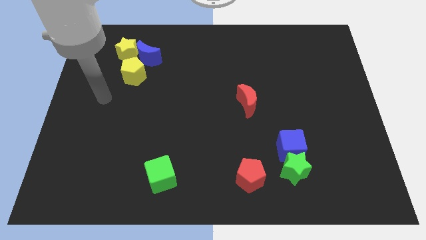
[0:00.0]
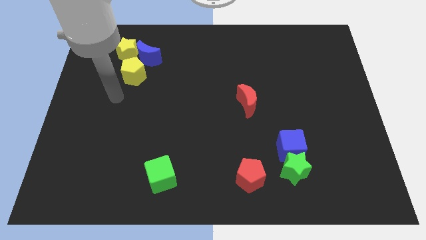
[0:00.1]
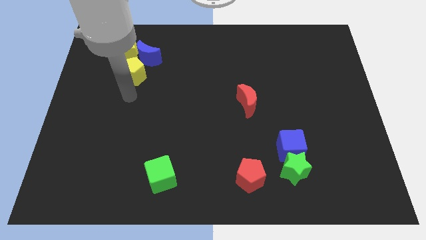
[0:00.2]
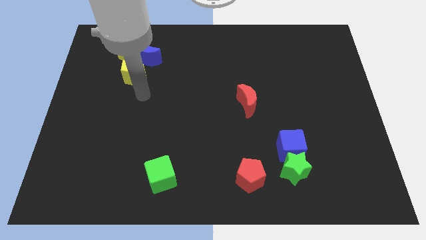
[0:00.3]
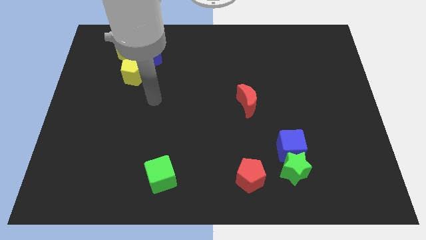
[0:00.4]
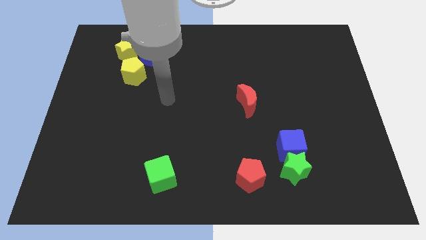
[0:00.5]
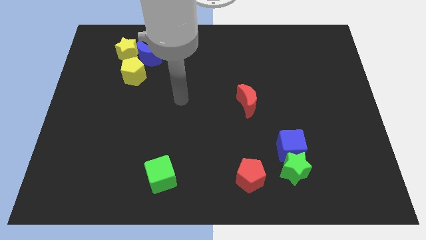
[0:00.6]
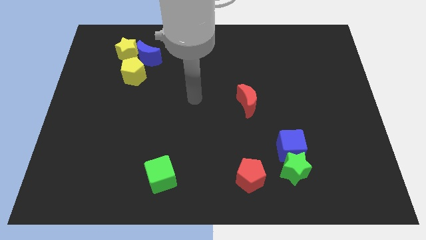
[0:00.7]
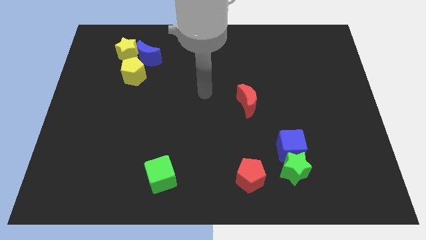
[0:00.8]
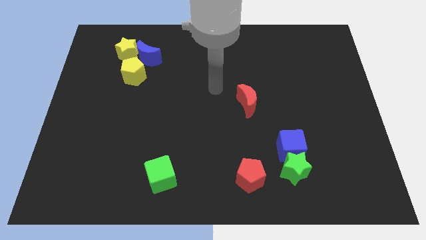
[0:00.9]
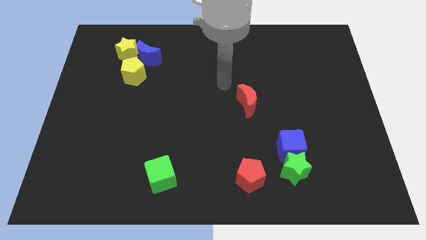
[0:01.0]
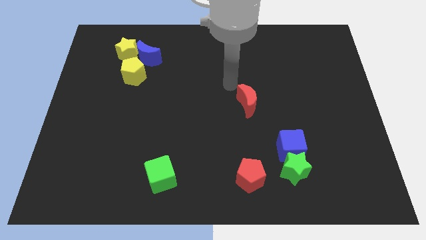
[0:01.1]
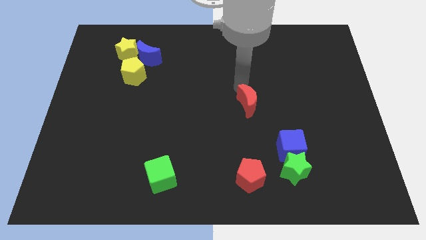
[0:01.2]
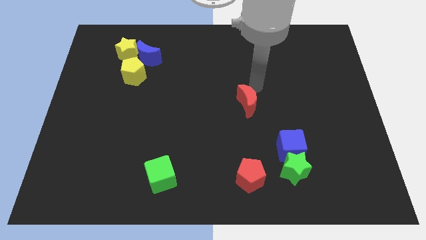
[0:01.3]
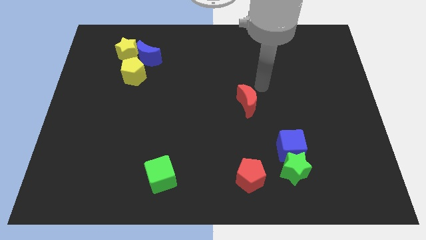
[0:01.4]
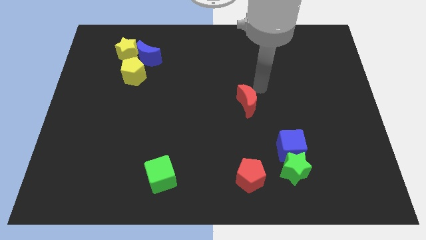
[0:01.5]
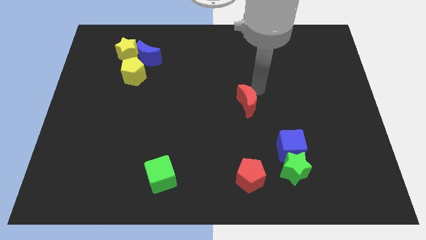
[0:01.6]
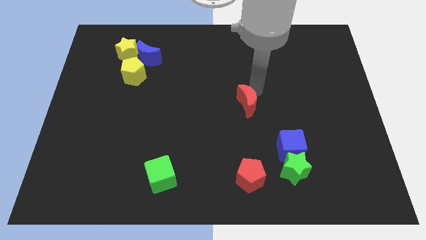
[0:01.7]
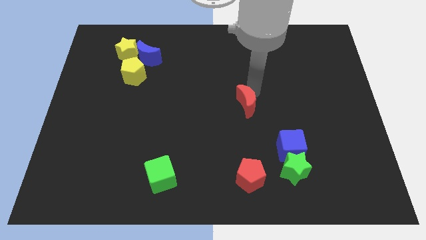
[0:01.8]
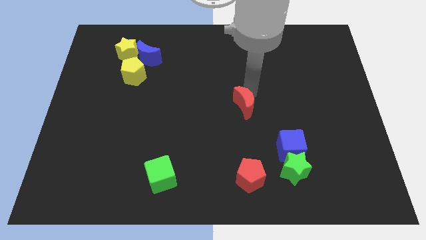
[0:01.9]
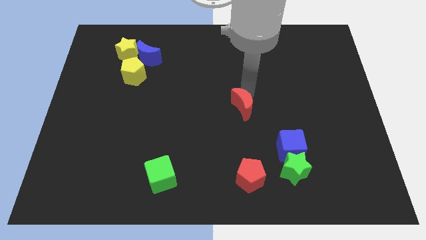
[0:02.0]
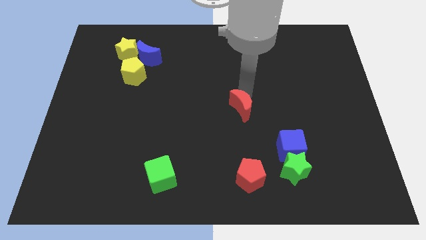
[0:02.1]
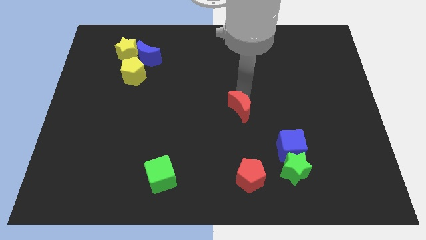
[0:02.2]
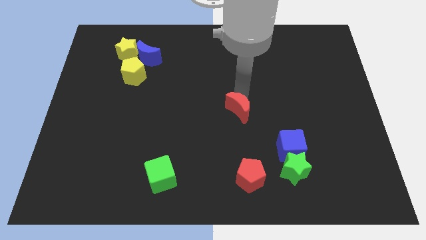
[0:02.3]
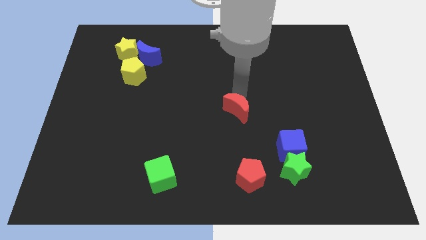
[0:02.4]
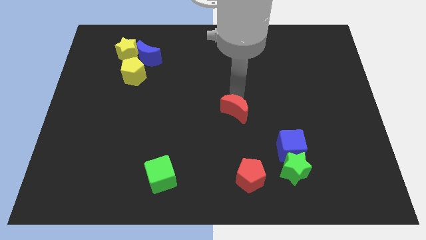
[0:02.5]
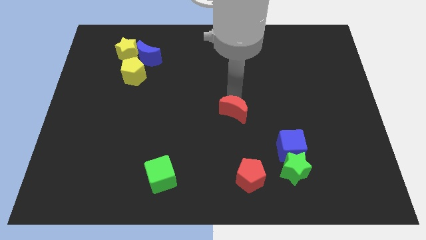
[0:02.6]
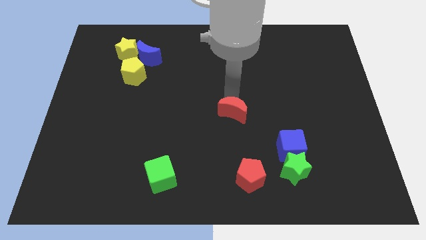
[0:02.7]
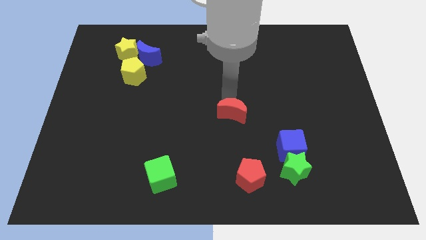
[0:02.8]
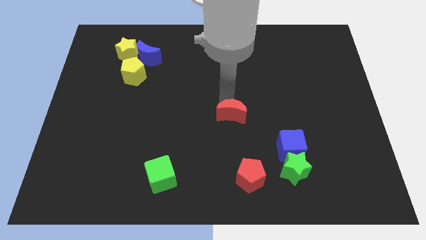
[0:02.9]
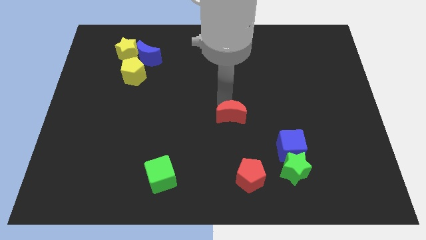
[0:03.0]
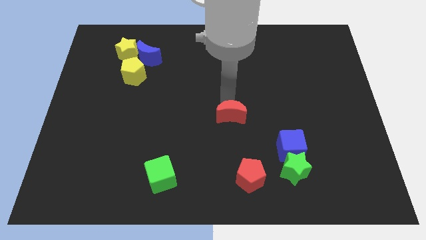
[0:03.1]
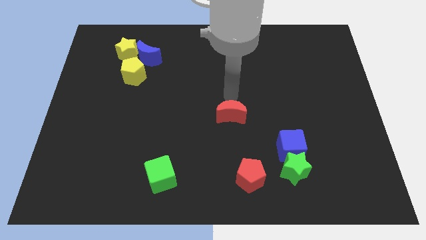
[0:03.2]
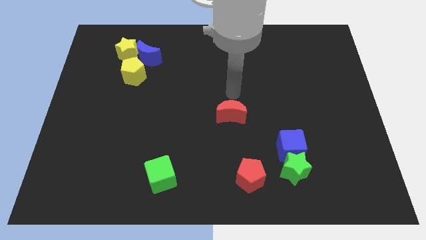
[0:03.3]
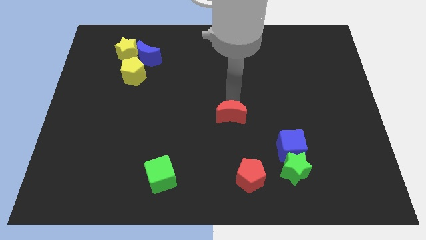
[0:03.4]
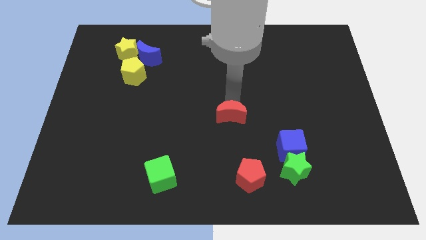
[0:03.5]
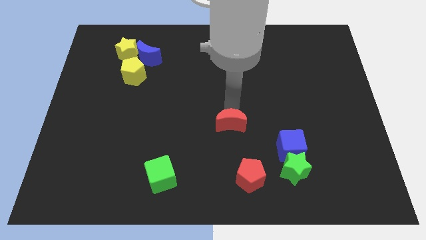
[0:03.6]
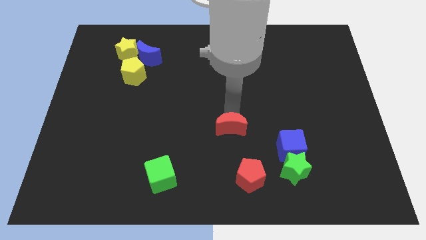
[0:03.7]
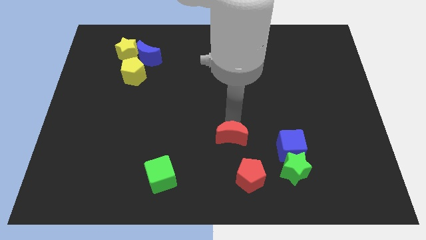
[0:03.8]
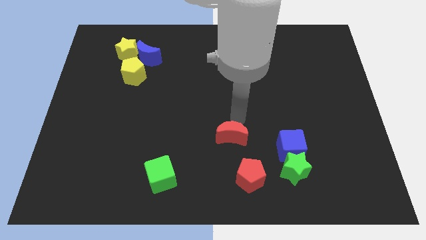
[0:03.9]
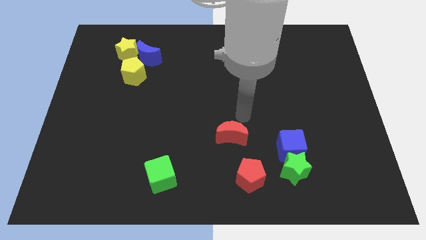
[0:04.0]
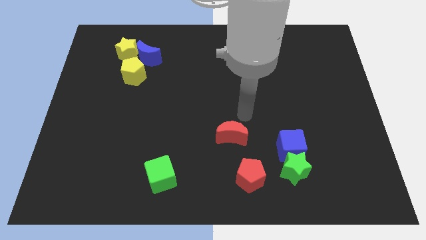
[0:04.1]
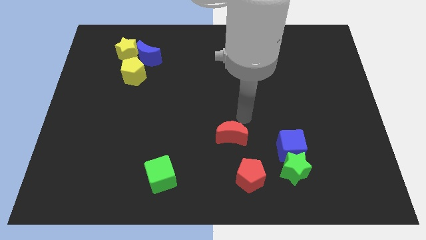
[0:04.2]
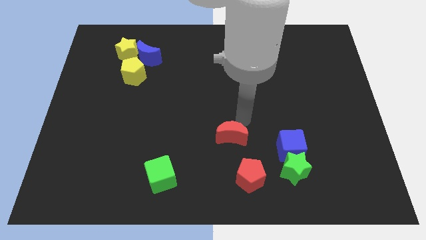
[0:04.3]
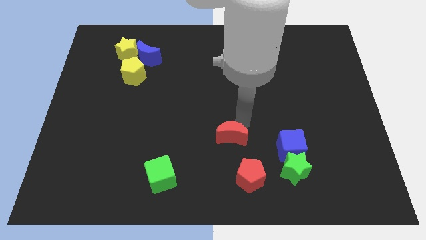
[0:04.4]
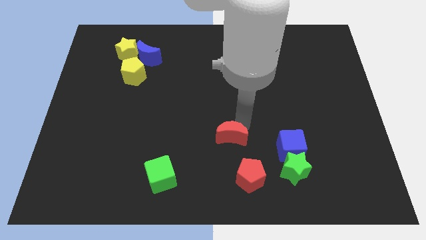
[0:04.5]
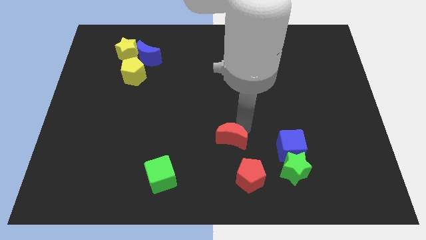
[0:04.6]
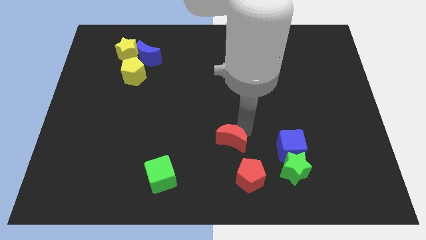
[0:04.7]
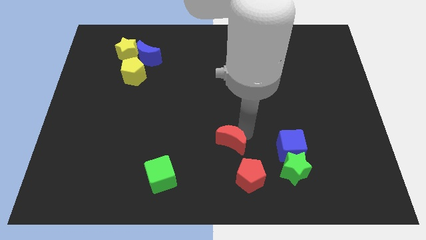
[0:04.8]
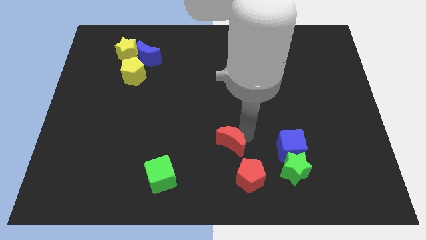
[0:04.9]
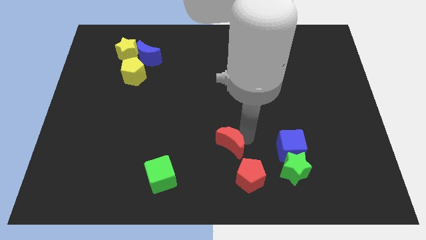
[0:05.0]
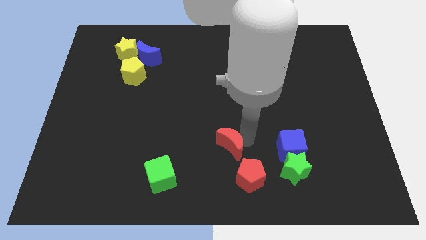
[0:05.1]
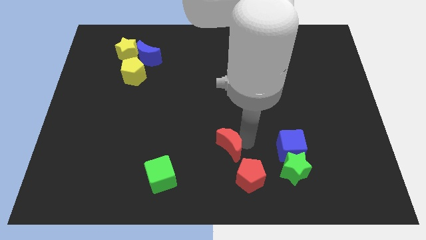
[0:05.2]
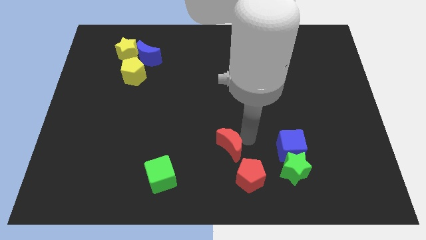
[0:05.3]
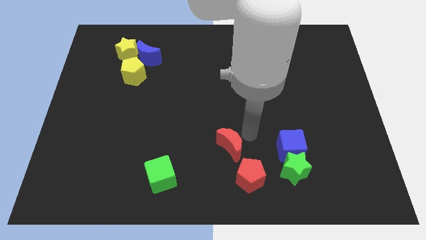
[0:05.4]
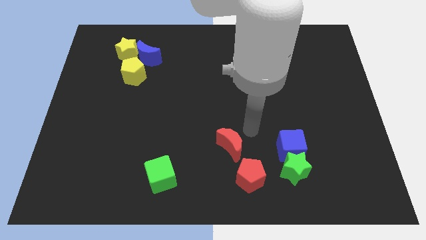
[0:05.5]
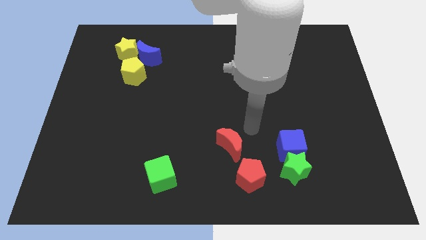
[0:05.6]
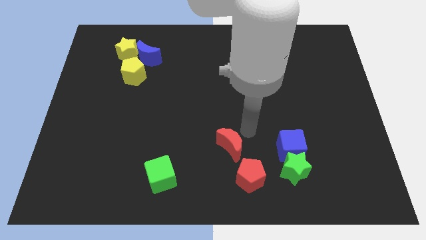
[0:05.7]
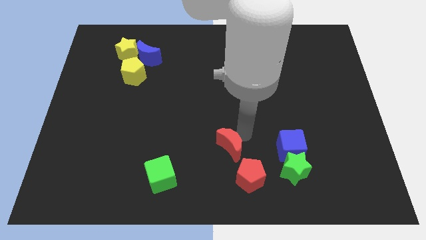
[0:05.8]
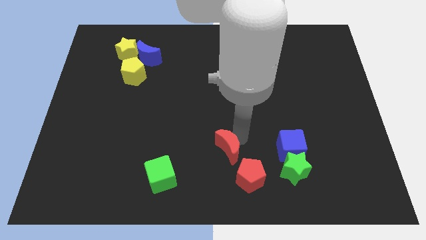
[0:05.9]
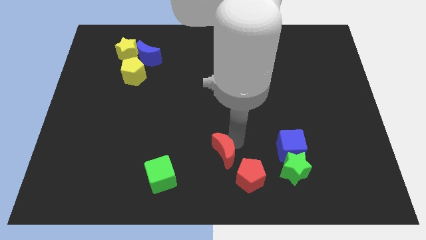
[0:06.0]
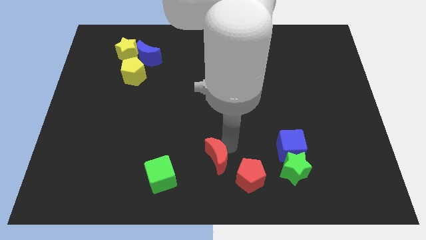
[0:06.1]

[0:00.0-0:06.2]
move the red moon right of the green cube

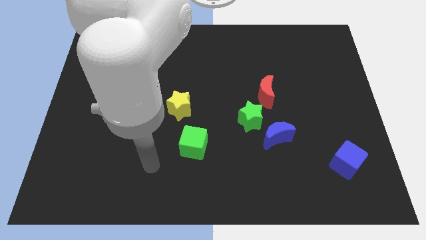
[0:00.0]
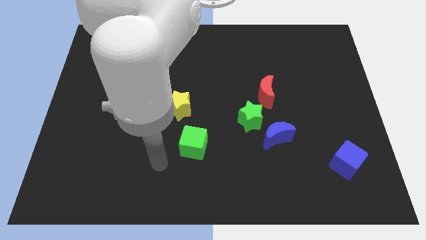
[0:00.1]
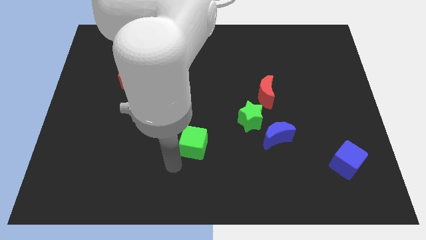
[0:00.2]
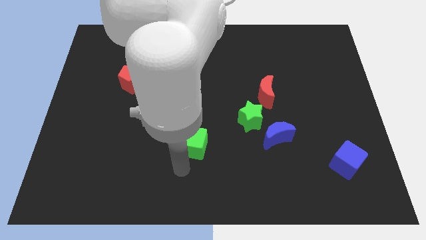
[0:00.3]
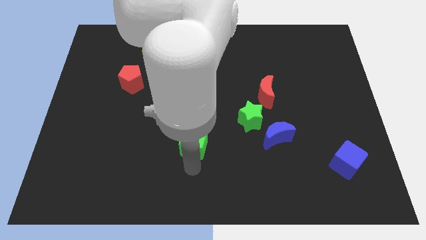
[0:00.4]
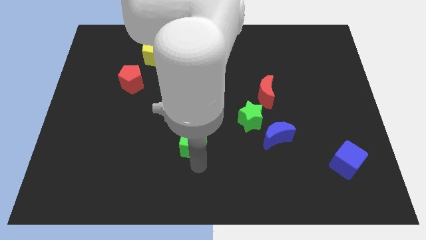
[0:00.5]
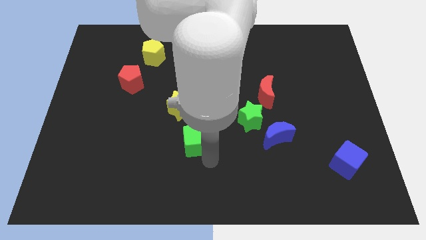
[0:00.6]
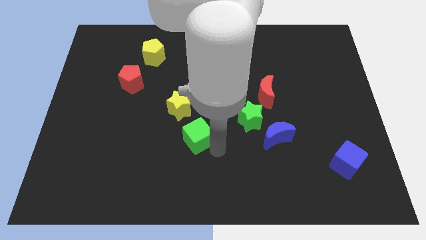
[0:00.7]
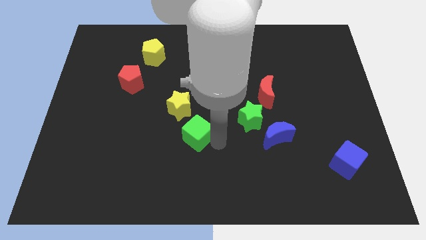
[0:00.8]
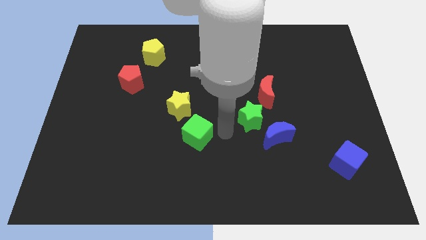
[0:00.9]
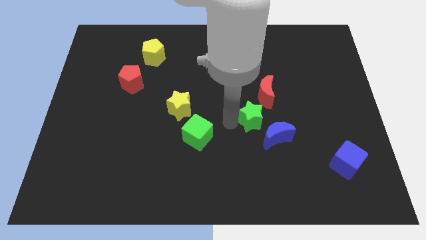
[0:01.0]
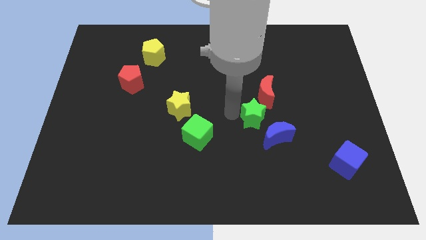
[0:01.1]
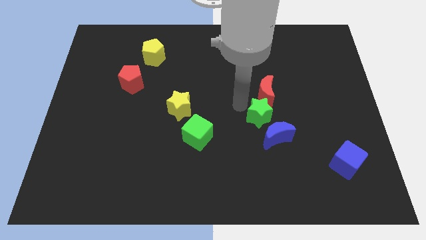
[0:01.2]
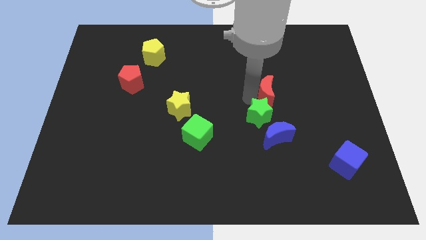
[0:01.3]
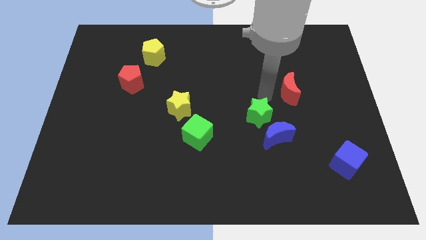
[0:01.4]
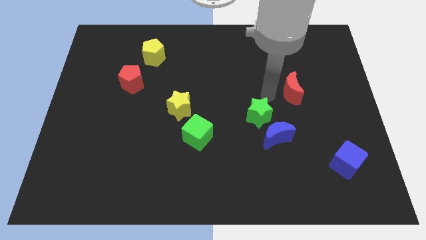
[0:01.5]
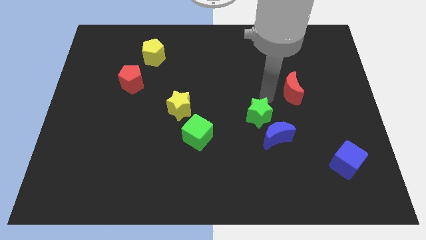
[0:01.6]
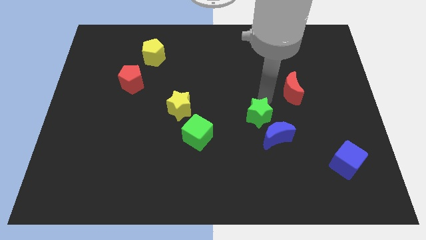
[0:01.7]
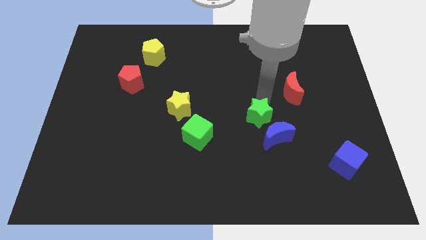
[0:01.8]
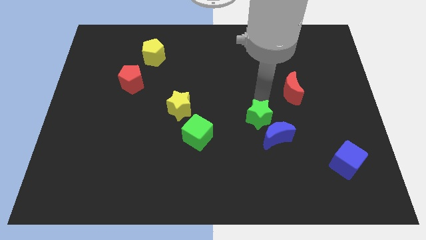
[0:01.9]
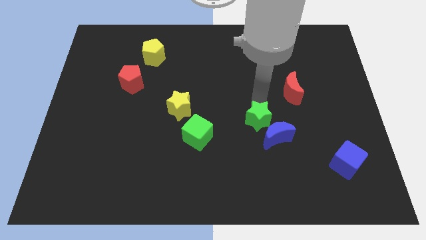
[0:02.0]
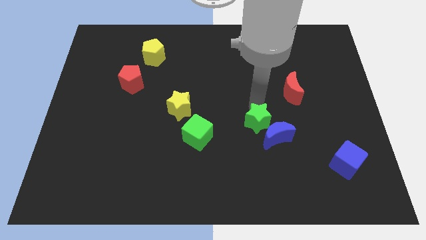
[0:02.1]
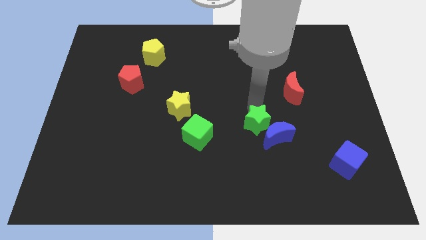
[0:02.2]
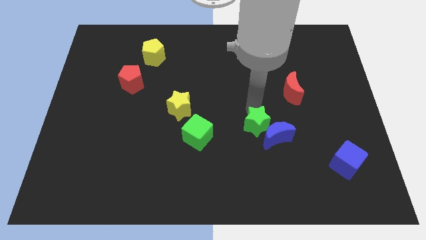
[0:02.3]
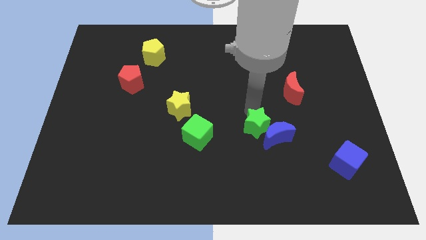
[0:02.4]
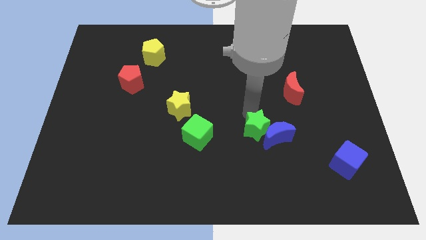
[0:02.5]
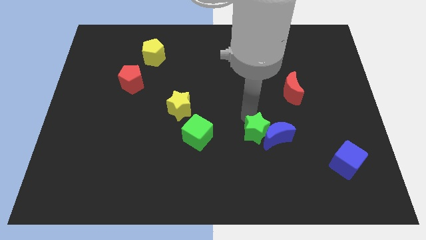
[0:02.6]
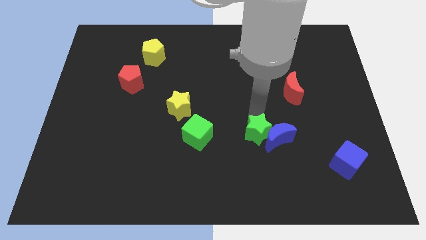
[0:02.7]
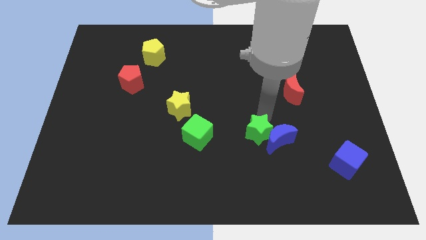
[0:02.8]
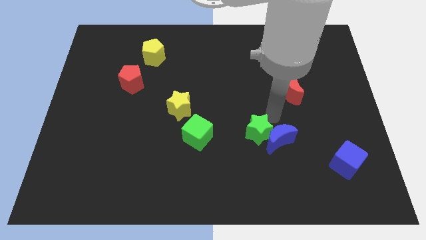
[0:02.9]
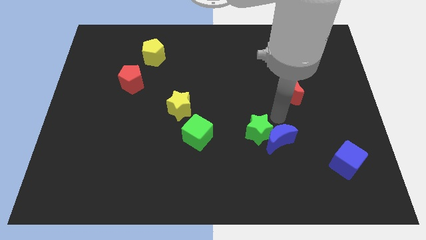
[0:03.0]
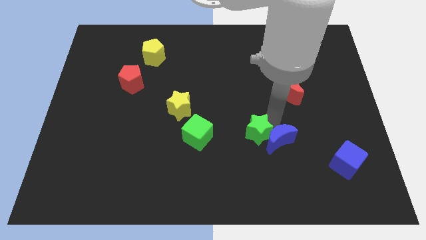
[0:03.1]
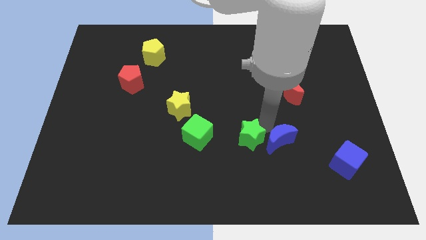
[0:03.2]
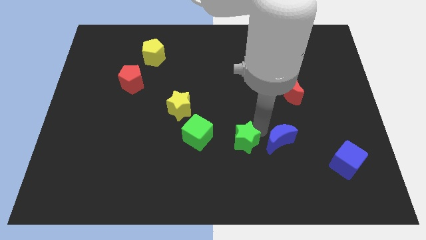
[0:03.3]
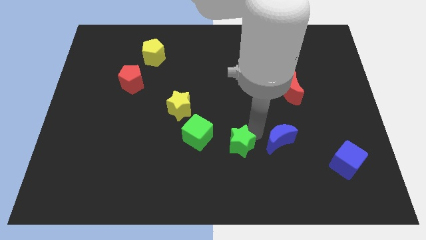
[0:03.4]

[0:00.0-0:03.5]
move the green star to the bottom right of the green cube
